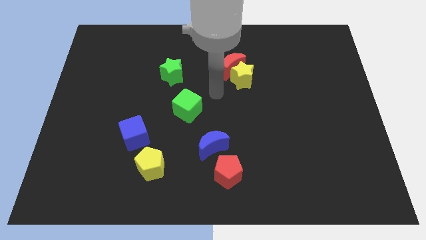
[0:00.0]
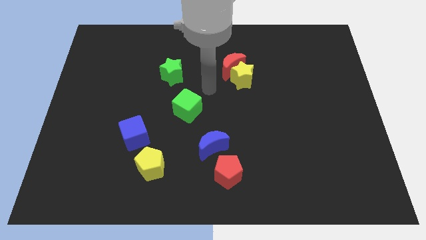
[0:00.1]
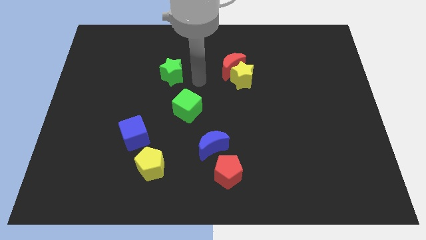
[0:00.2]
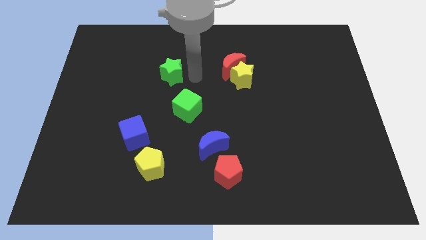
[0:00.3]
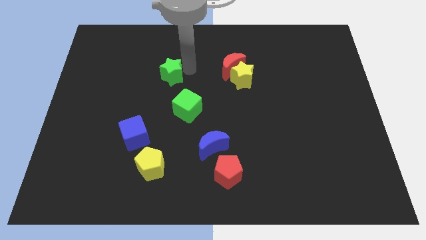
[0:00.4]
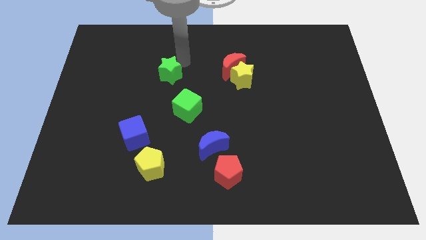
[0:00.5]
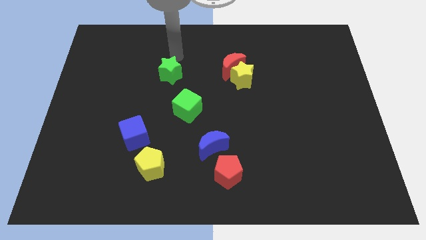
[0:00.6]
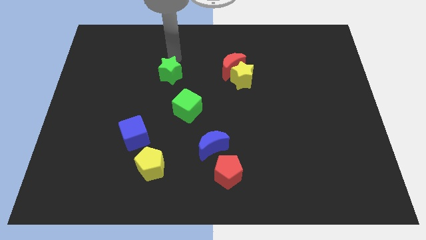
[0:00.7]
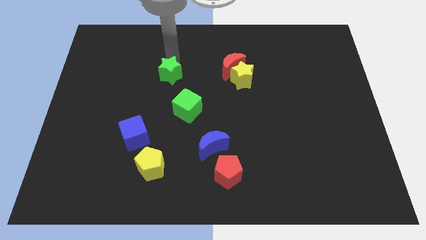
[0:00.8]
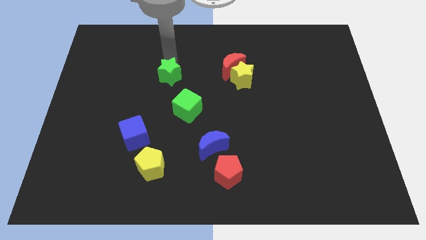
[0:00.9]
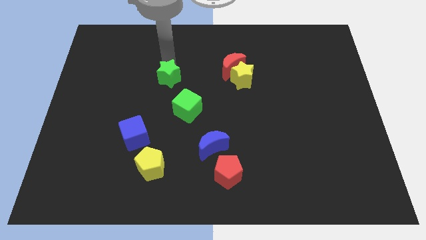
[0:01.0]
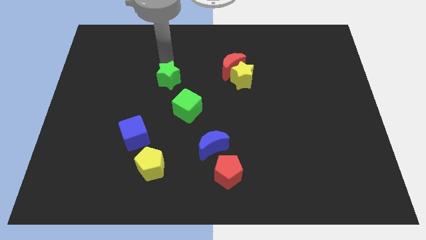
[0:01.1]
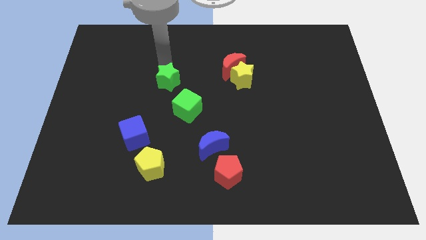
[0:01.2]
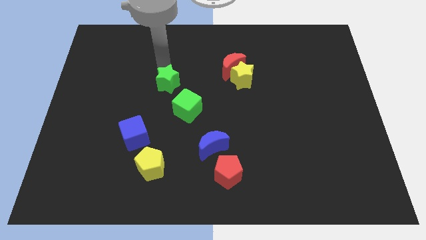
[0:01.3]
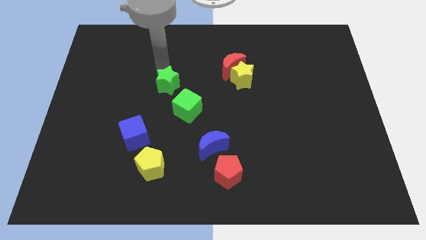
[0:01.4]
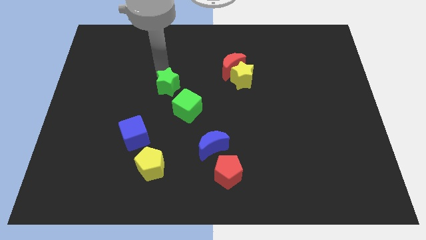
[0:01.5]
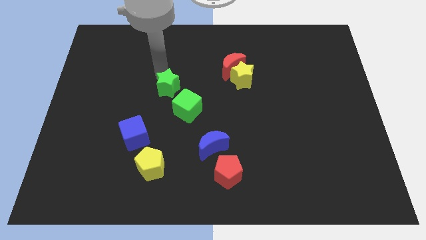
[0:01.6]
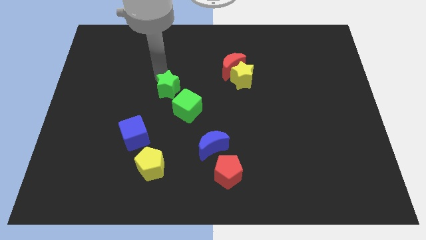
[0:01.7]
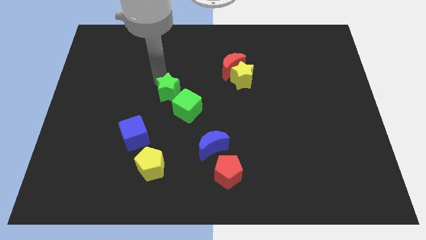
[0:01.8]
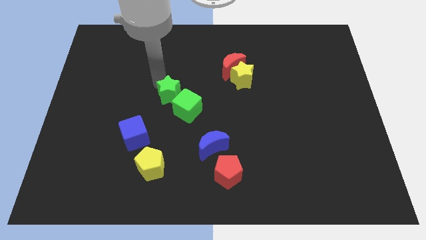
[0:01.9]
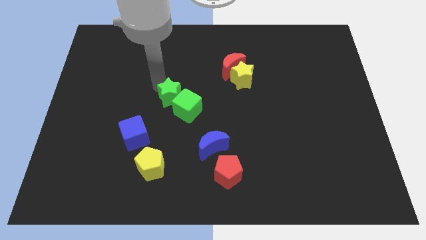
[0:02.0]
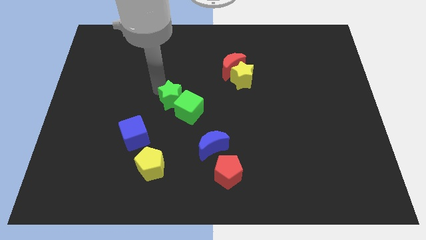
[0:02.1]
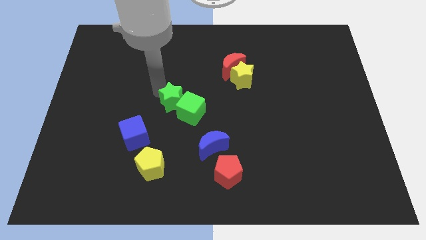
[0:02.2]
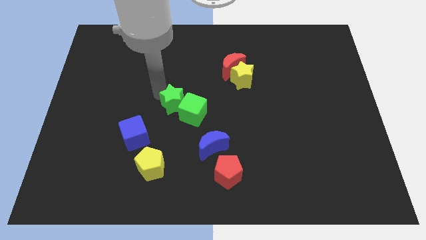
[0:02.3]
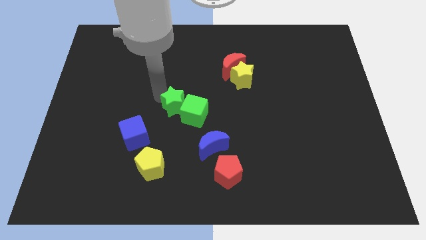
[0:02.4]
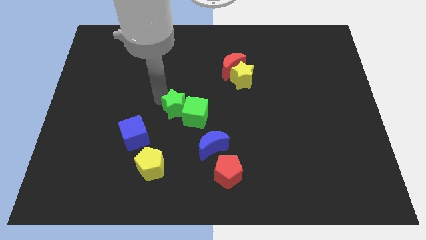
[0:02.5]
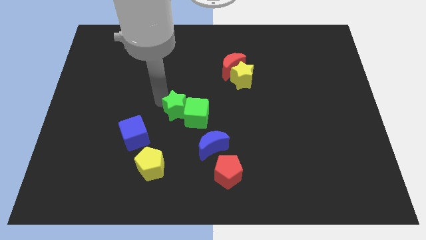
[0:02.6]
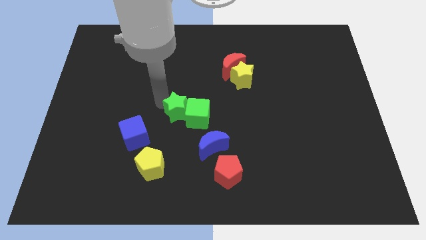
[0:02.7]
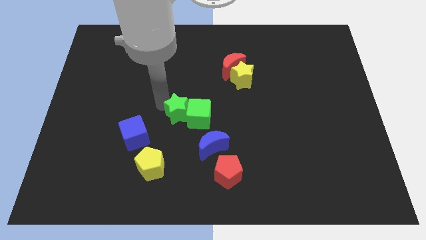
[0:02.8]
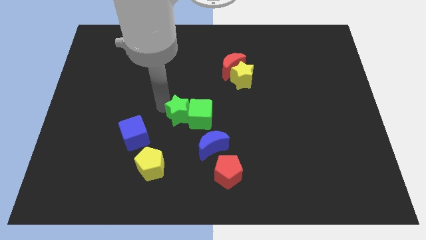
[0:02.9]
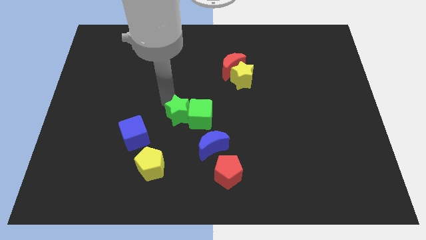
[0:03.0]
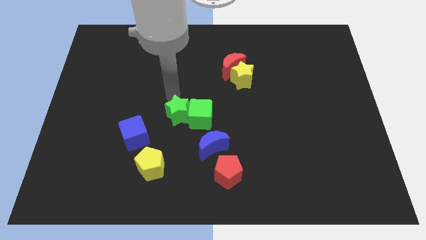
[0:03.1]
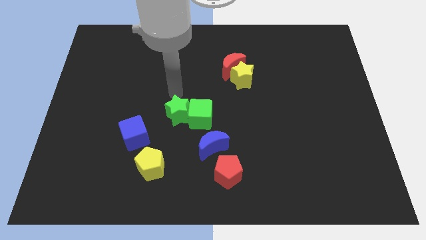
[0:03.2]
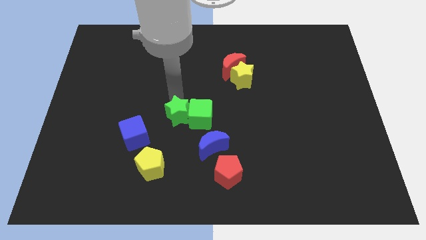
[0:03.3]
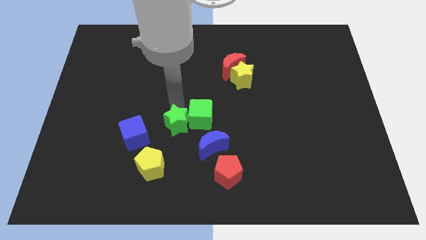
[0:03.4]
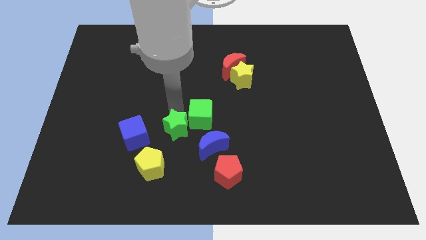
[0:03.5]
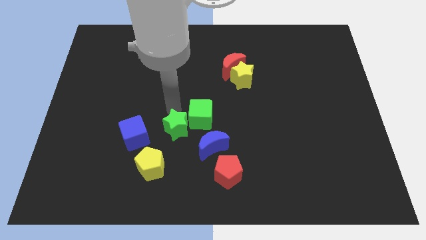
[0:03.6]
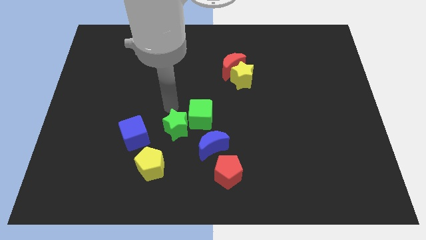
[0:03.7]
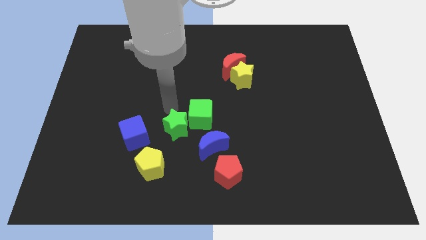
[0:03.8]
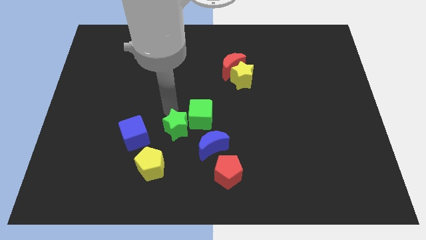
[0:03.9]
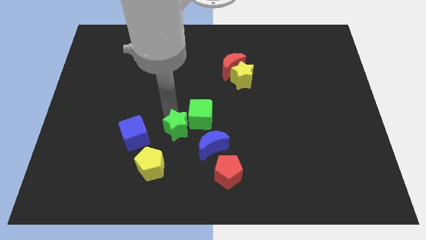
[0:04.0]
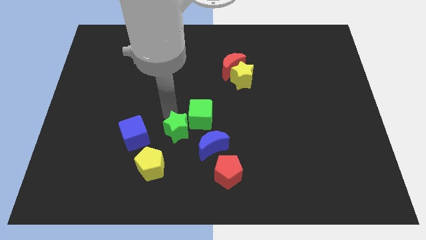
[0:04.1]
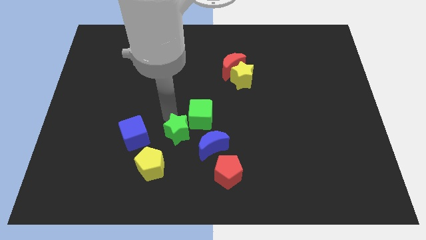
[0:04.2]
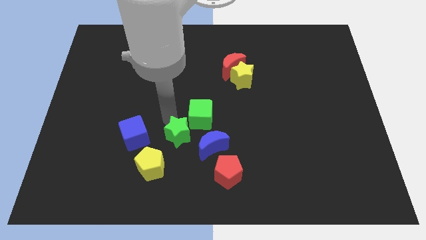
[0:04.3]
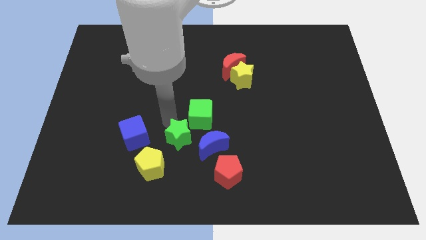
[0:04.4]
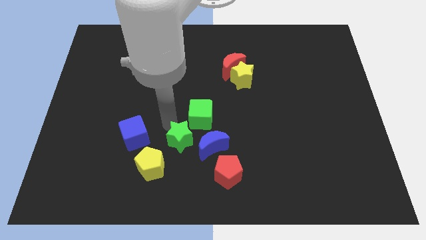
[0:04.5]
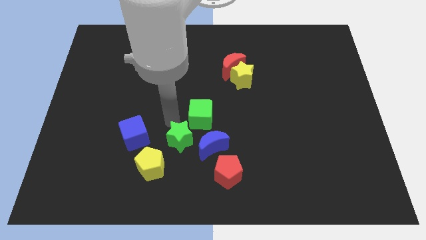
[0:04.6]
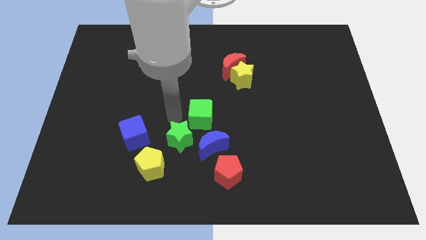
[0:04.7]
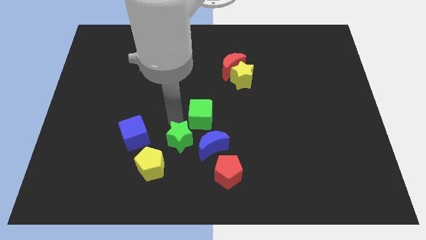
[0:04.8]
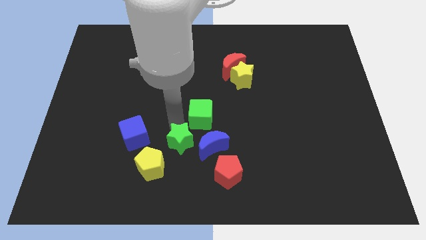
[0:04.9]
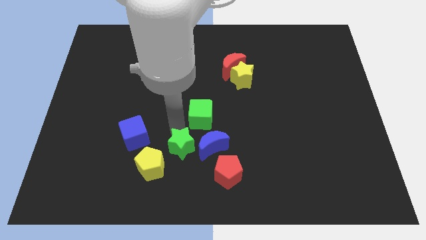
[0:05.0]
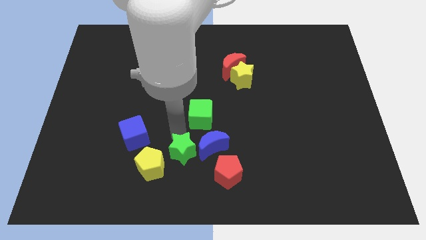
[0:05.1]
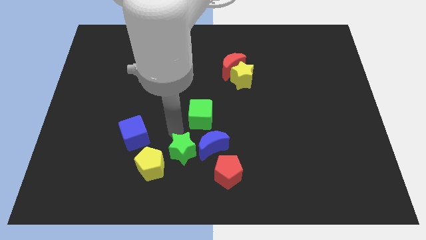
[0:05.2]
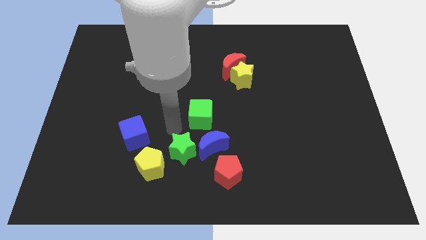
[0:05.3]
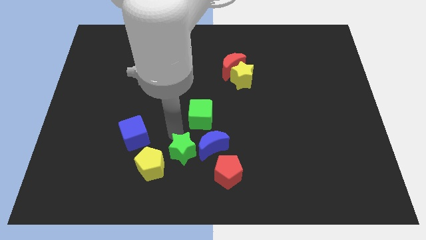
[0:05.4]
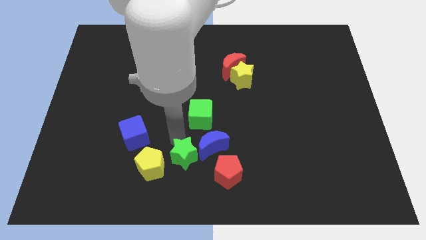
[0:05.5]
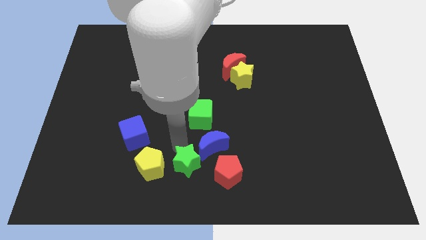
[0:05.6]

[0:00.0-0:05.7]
push the green star to the bottom
